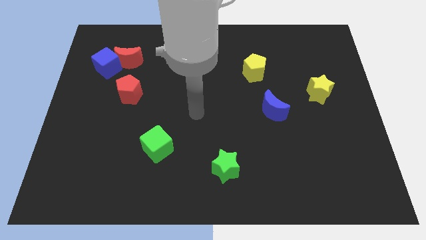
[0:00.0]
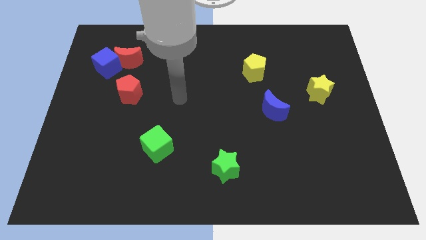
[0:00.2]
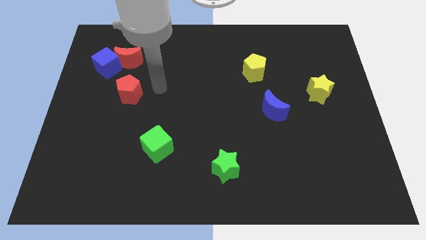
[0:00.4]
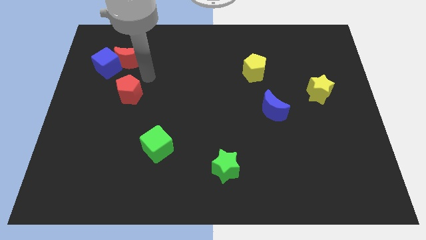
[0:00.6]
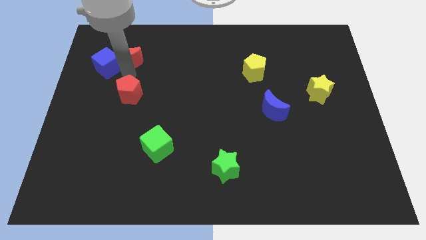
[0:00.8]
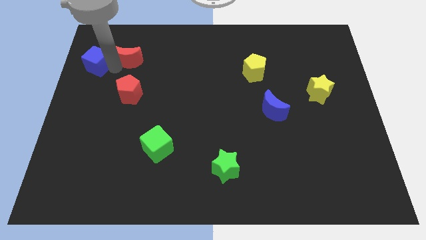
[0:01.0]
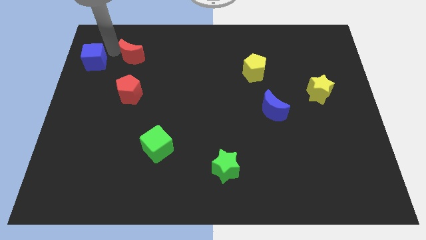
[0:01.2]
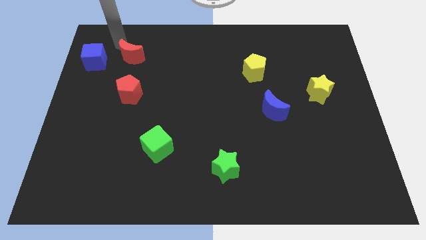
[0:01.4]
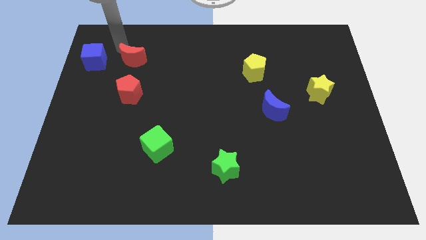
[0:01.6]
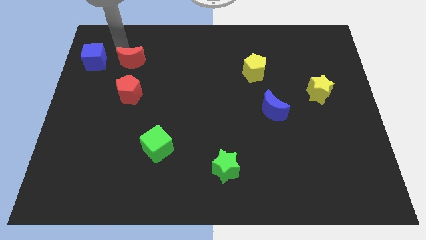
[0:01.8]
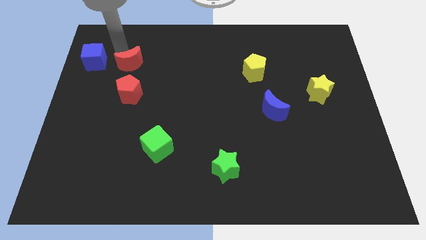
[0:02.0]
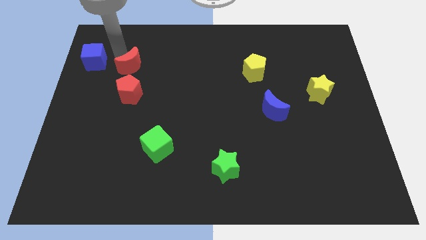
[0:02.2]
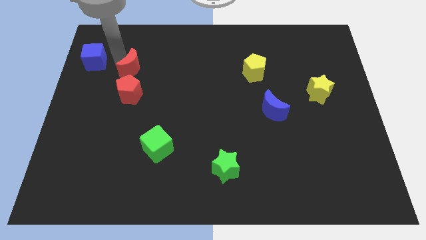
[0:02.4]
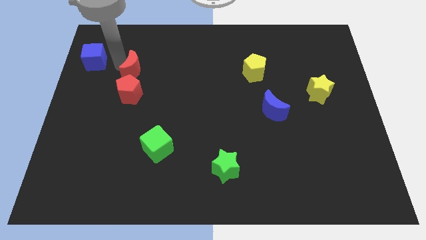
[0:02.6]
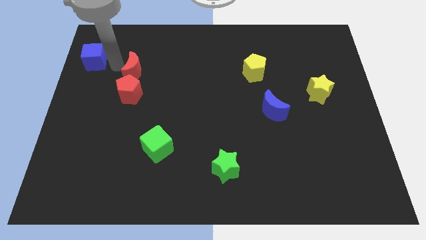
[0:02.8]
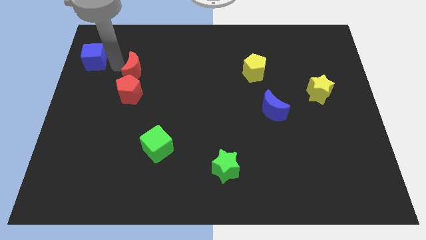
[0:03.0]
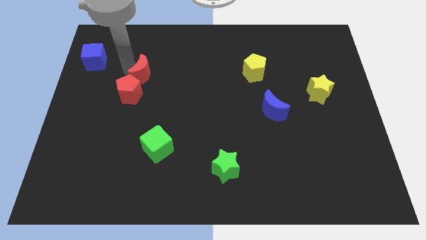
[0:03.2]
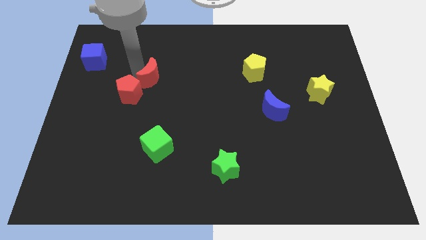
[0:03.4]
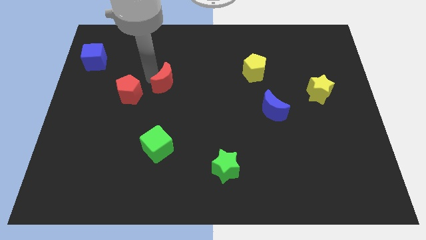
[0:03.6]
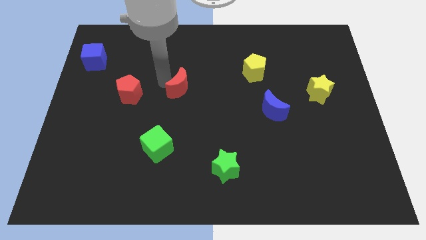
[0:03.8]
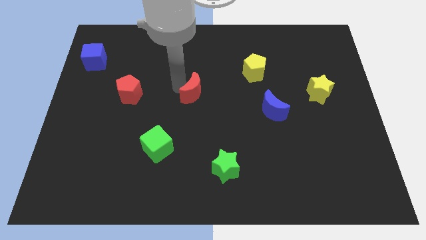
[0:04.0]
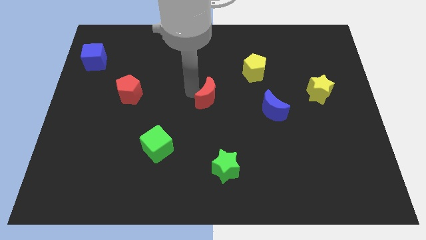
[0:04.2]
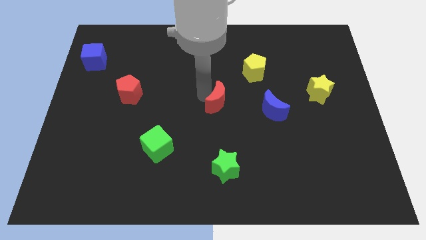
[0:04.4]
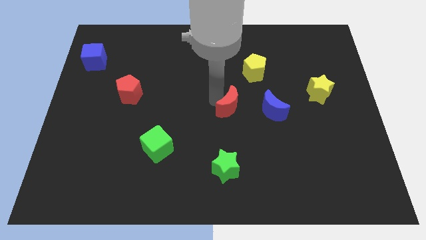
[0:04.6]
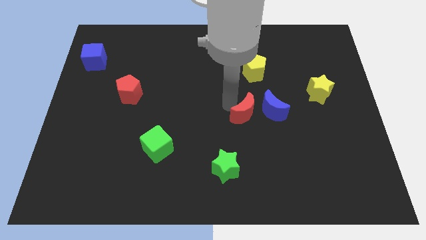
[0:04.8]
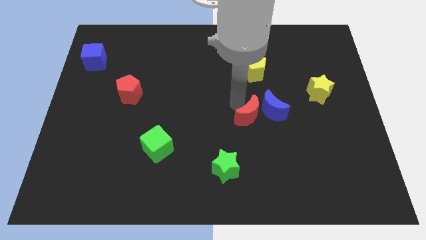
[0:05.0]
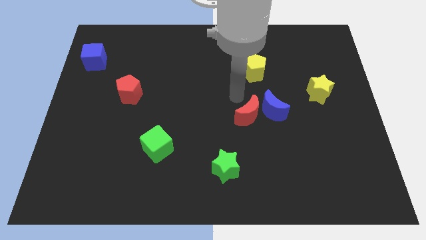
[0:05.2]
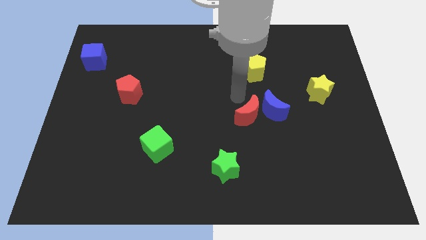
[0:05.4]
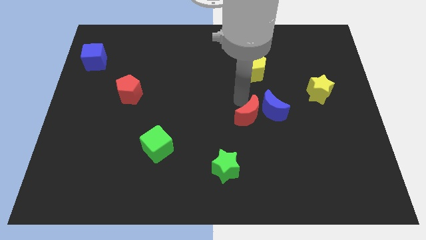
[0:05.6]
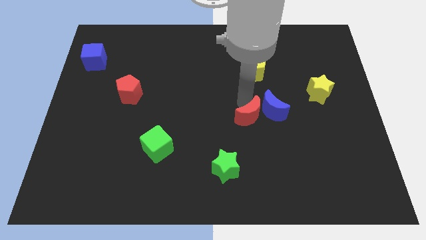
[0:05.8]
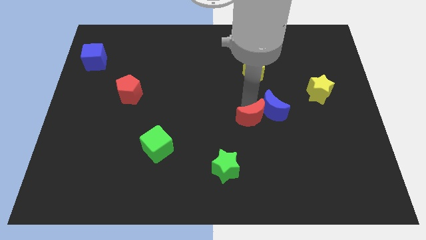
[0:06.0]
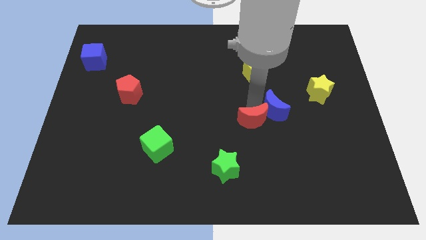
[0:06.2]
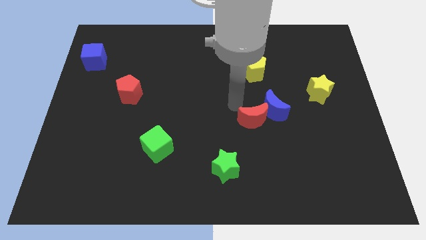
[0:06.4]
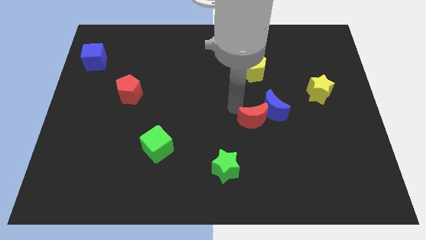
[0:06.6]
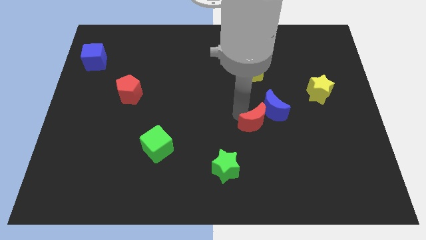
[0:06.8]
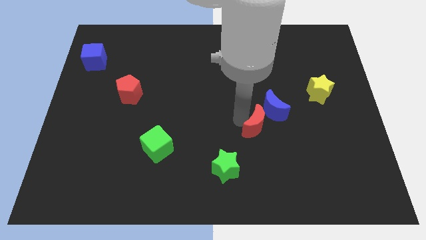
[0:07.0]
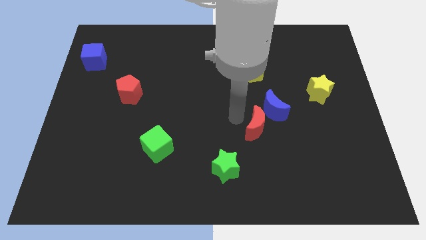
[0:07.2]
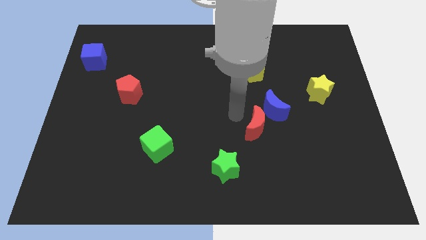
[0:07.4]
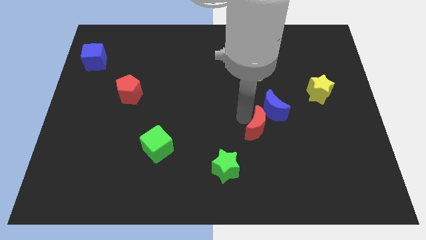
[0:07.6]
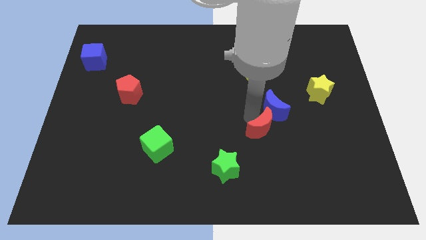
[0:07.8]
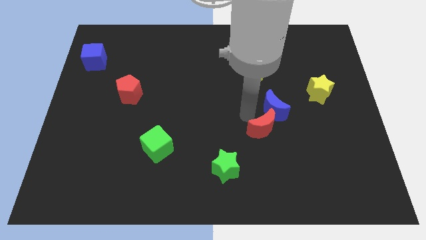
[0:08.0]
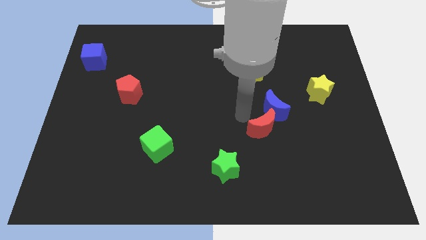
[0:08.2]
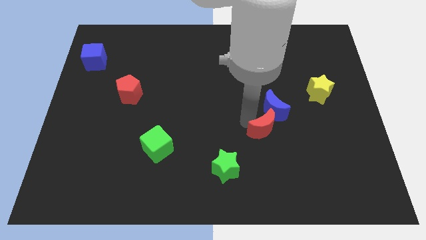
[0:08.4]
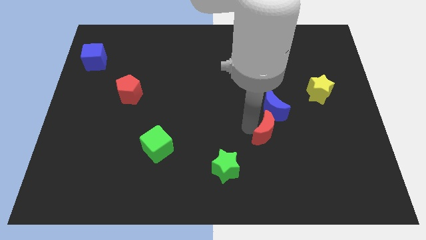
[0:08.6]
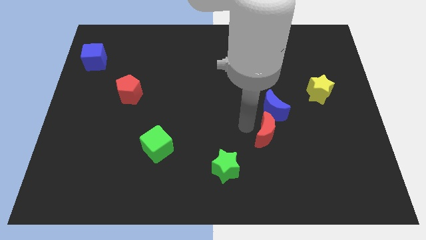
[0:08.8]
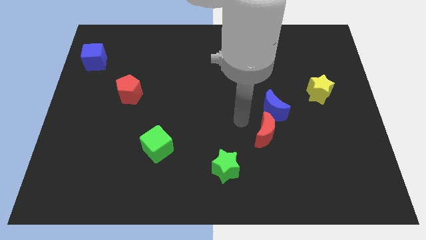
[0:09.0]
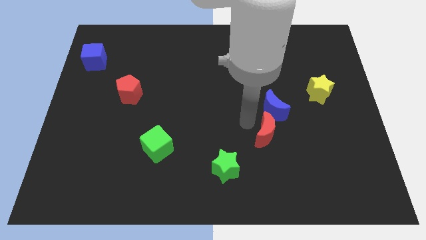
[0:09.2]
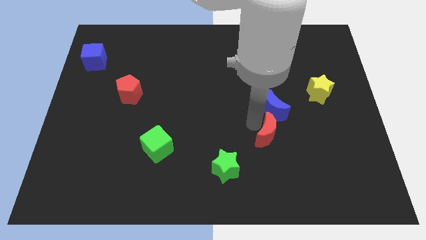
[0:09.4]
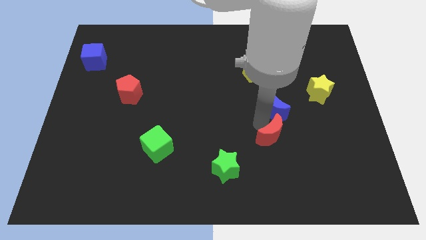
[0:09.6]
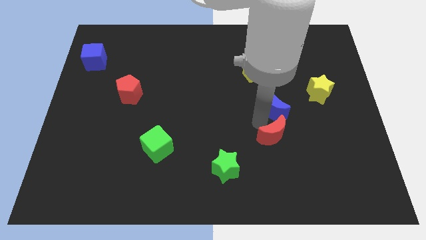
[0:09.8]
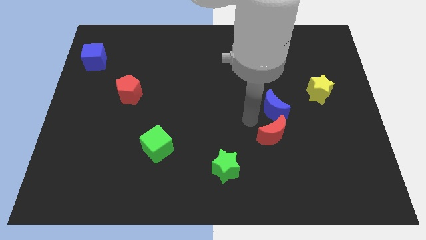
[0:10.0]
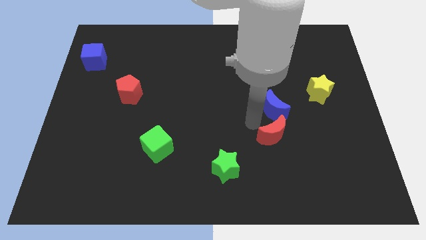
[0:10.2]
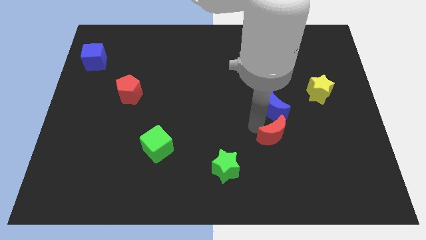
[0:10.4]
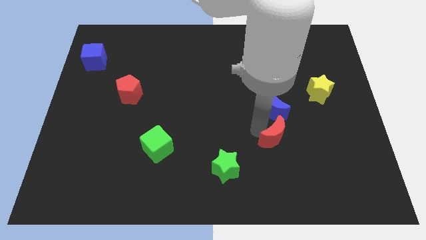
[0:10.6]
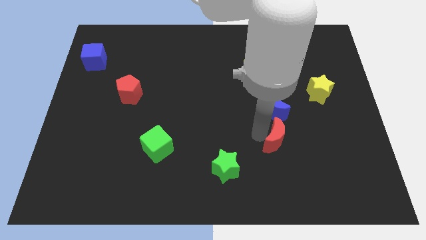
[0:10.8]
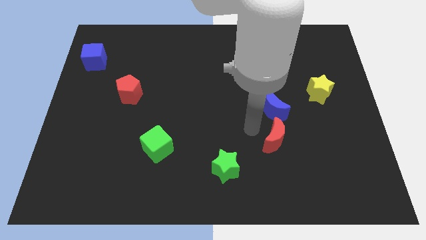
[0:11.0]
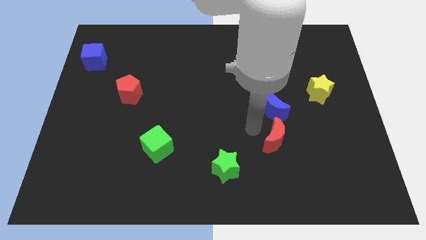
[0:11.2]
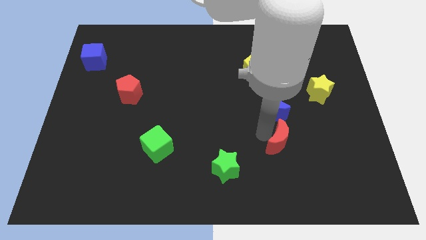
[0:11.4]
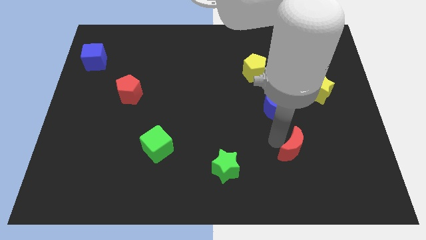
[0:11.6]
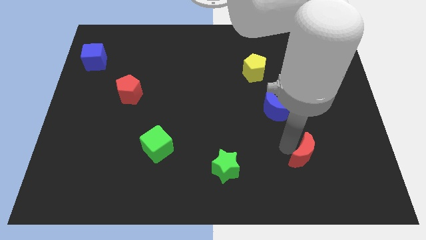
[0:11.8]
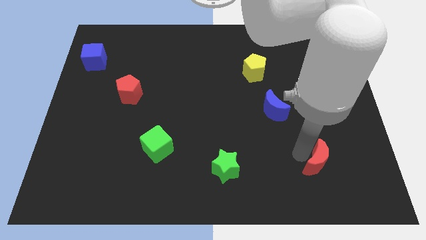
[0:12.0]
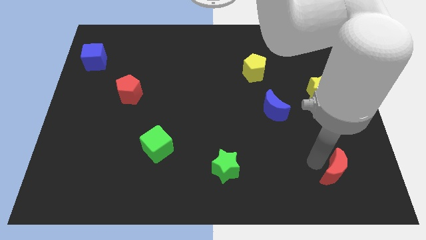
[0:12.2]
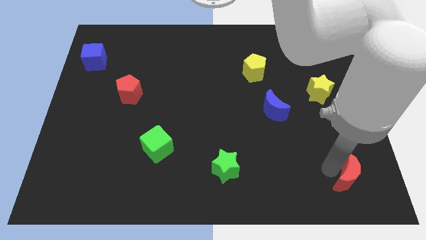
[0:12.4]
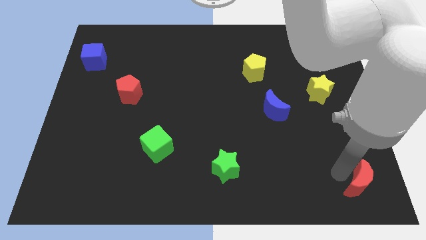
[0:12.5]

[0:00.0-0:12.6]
move the red moon to the lower right corner
